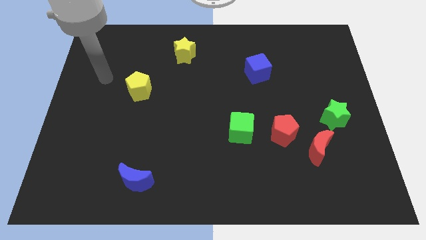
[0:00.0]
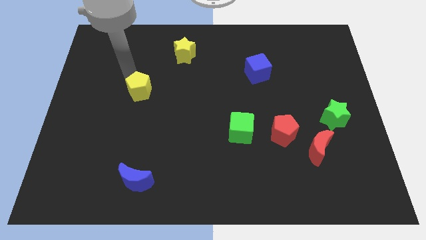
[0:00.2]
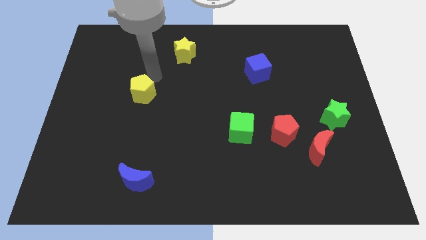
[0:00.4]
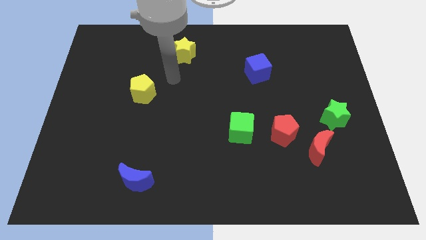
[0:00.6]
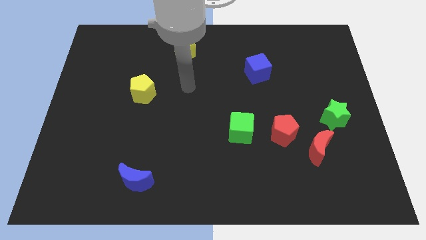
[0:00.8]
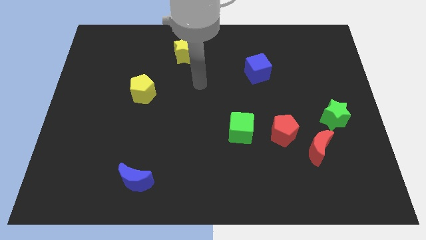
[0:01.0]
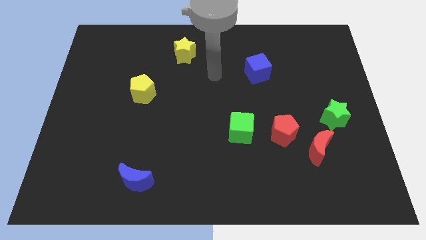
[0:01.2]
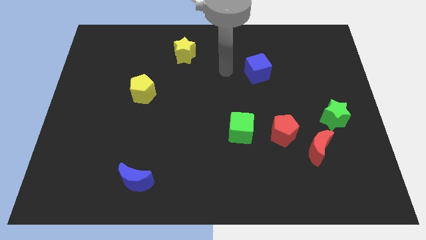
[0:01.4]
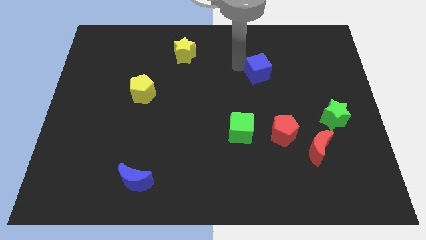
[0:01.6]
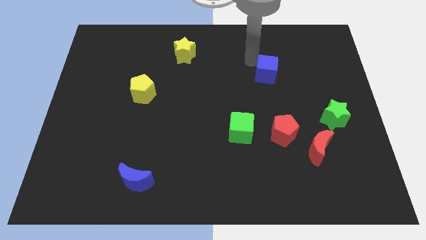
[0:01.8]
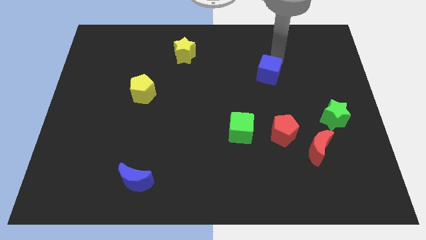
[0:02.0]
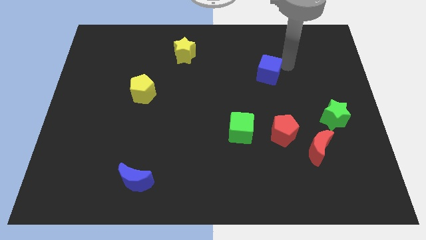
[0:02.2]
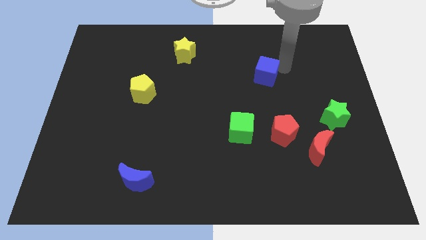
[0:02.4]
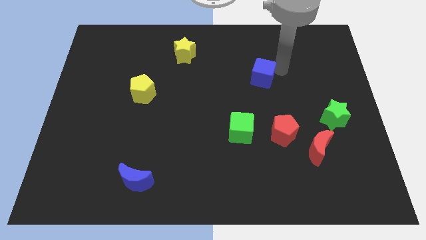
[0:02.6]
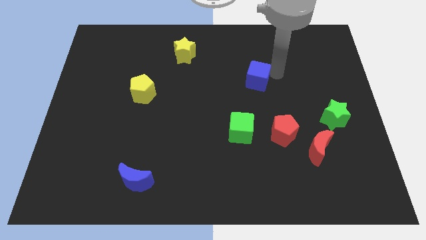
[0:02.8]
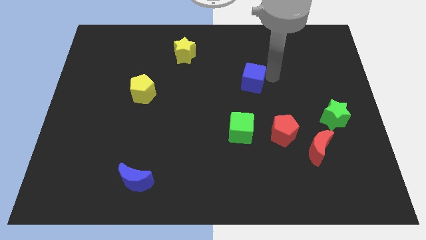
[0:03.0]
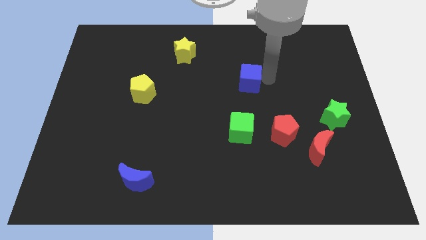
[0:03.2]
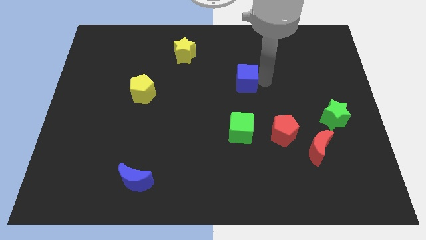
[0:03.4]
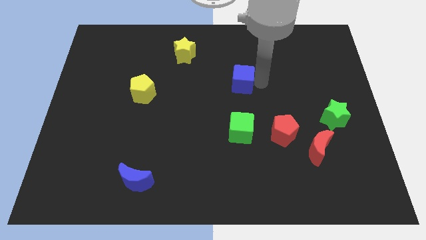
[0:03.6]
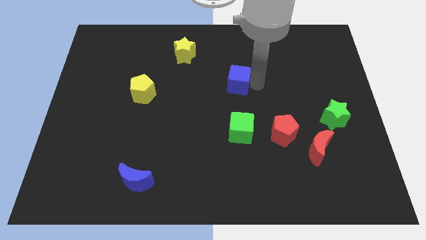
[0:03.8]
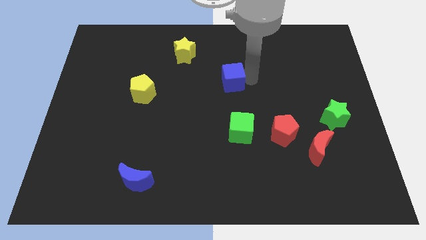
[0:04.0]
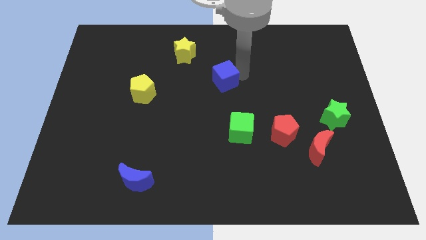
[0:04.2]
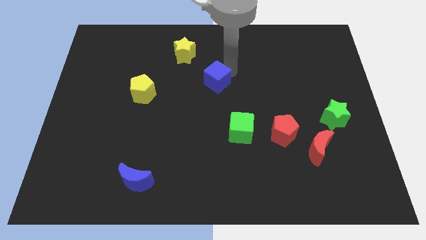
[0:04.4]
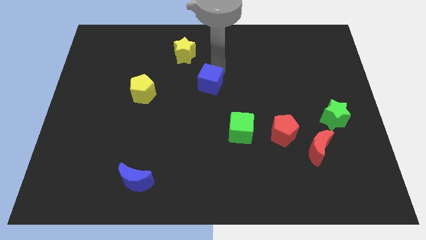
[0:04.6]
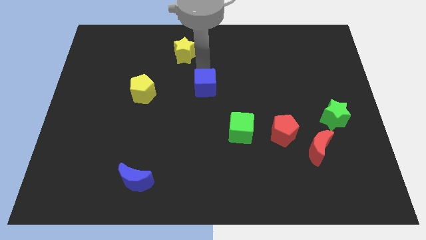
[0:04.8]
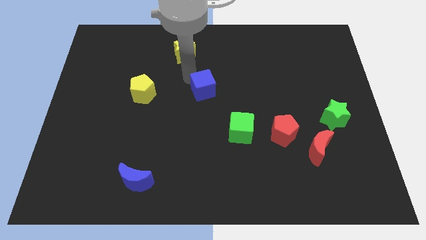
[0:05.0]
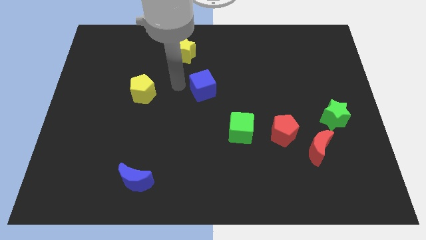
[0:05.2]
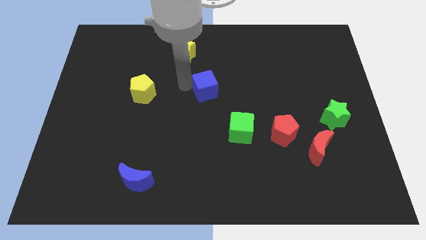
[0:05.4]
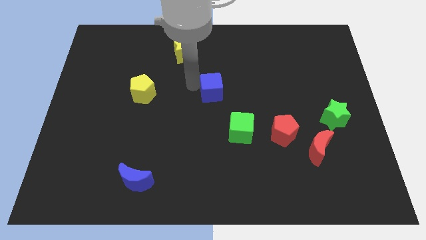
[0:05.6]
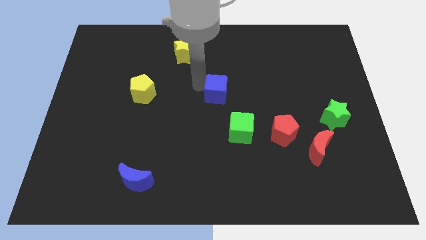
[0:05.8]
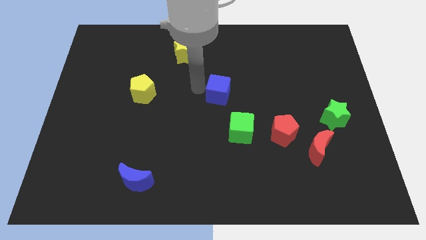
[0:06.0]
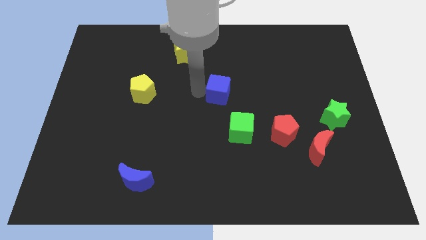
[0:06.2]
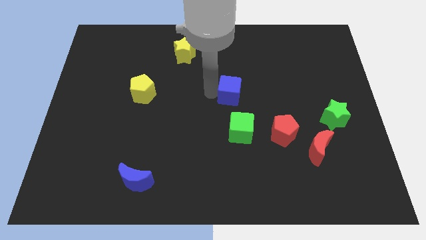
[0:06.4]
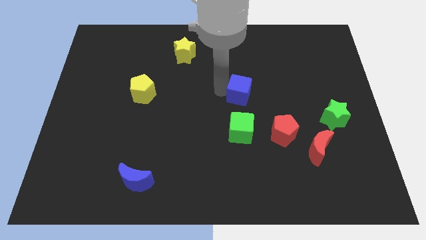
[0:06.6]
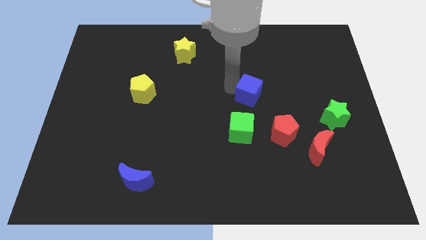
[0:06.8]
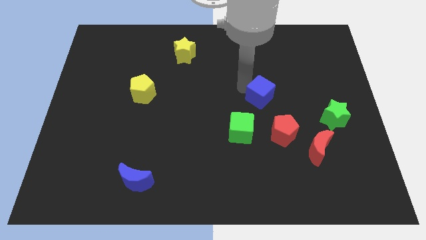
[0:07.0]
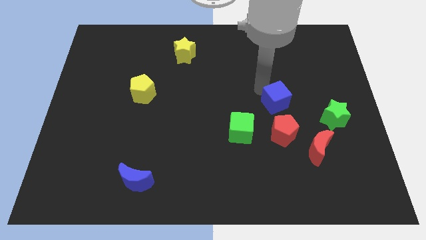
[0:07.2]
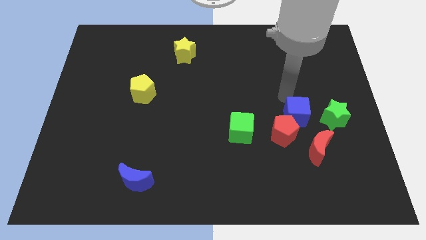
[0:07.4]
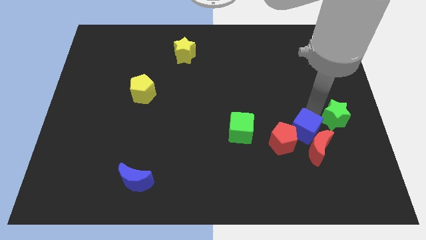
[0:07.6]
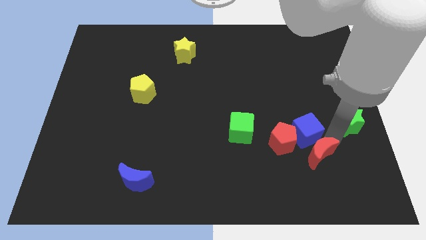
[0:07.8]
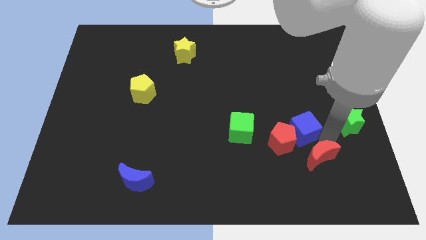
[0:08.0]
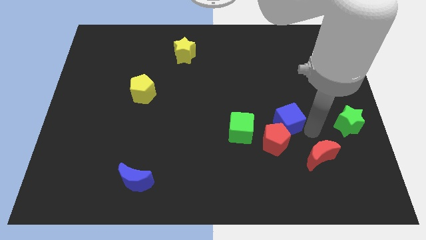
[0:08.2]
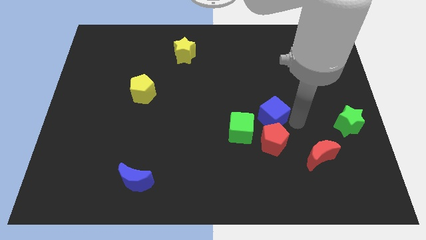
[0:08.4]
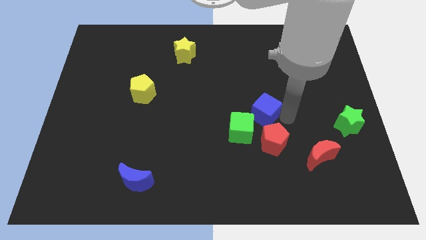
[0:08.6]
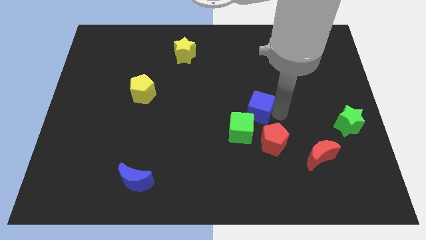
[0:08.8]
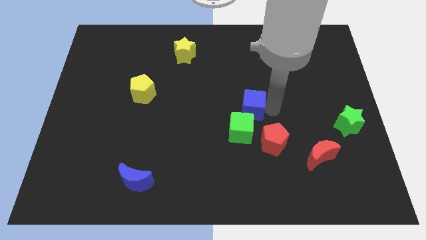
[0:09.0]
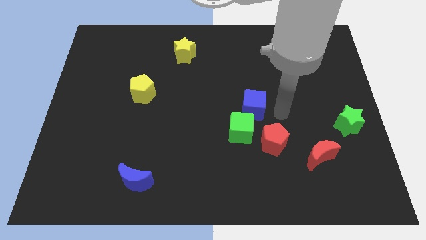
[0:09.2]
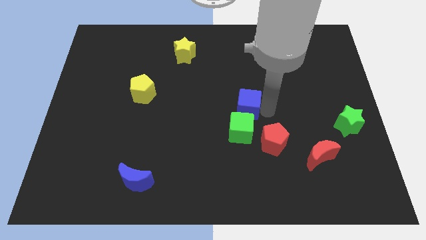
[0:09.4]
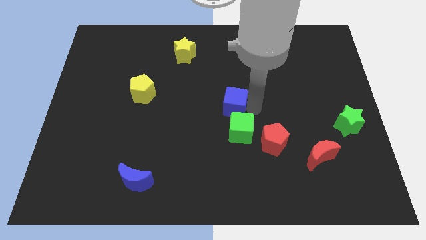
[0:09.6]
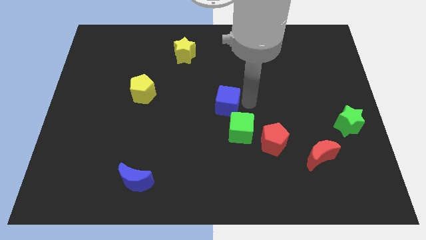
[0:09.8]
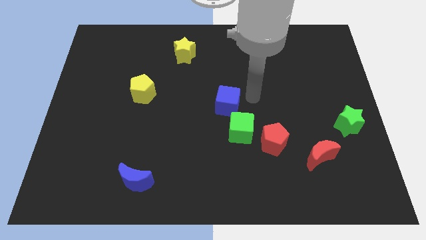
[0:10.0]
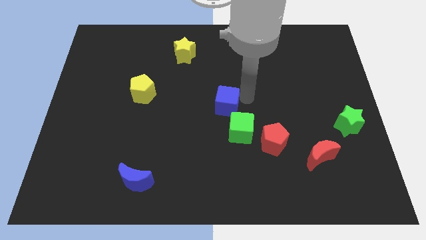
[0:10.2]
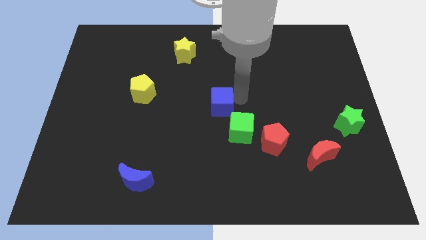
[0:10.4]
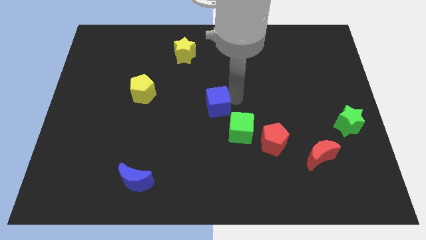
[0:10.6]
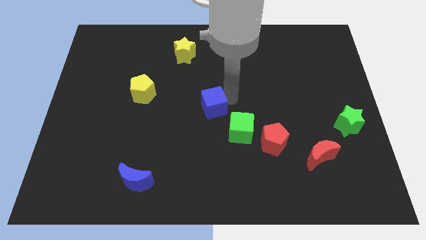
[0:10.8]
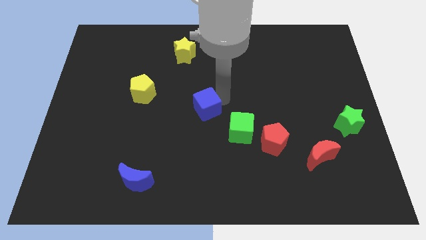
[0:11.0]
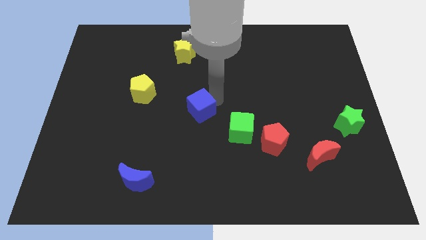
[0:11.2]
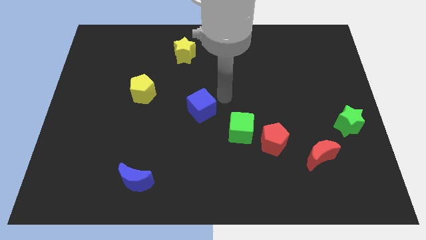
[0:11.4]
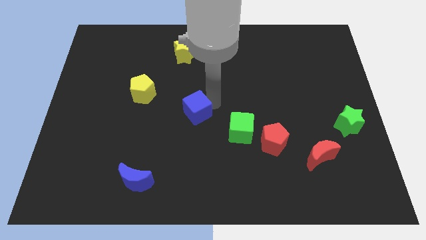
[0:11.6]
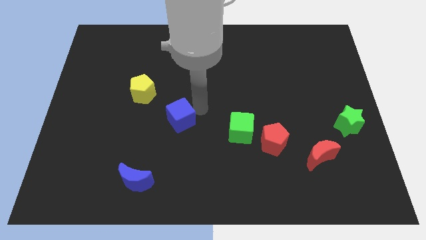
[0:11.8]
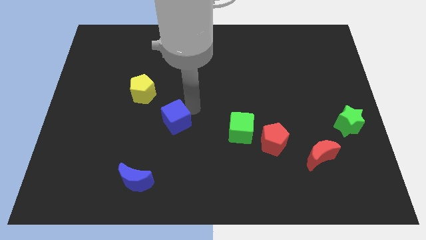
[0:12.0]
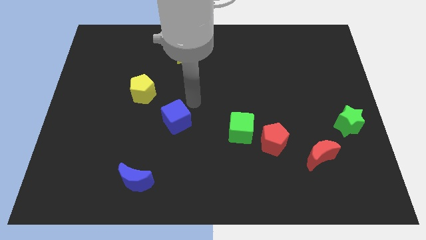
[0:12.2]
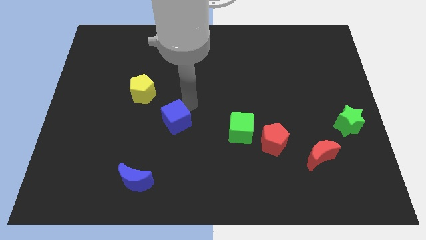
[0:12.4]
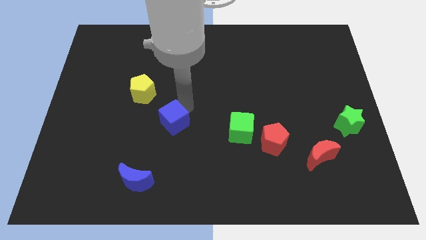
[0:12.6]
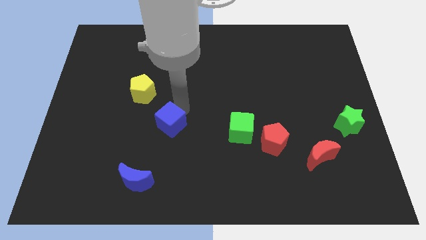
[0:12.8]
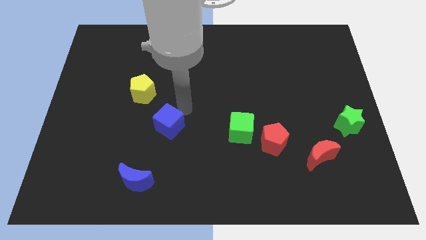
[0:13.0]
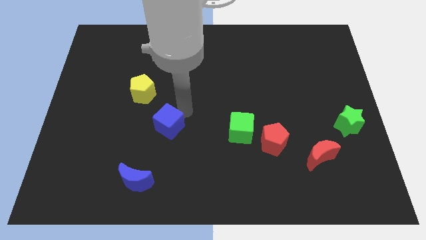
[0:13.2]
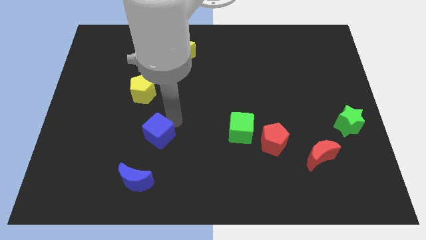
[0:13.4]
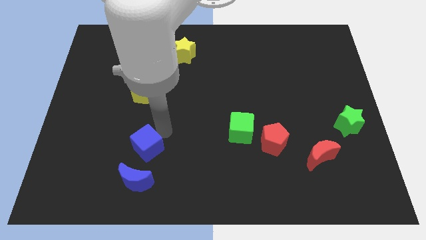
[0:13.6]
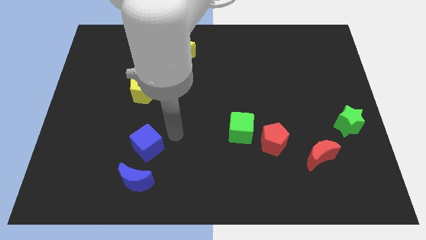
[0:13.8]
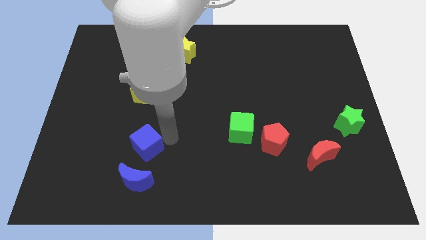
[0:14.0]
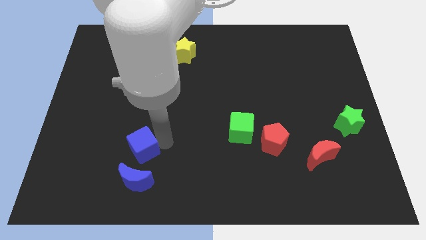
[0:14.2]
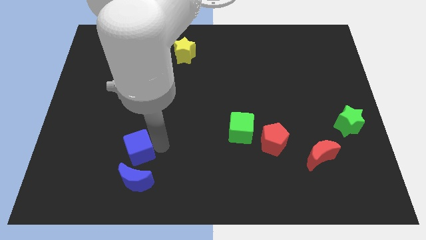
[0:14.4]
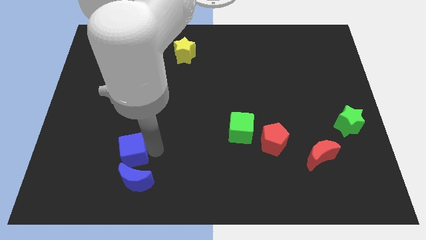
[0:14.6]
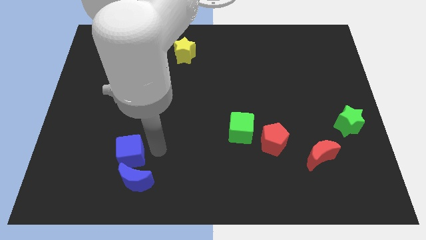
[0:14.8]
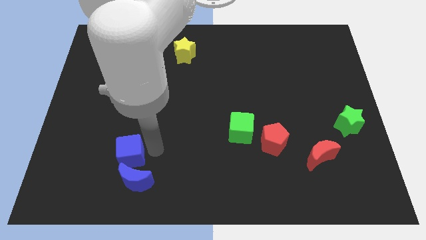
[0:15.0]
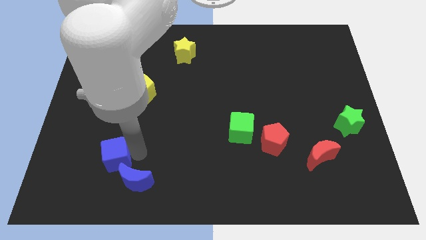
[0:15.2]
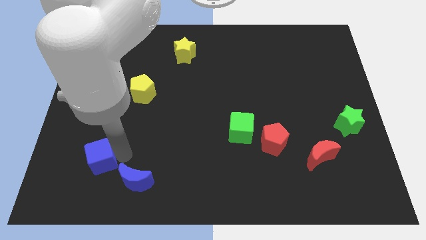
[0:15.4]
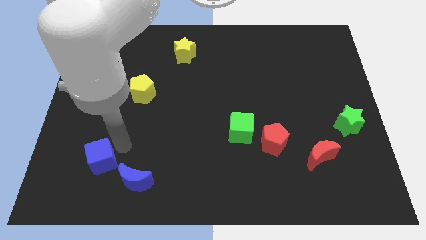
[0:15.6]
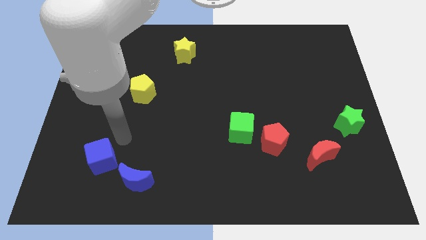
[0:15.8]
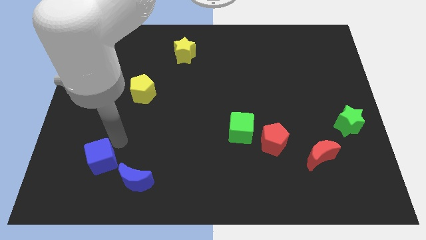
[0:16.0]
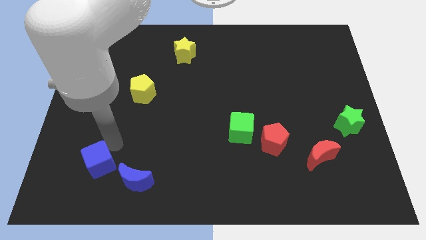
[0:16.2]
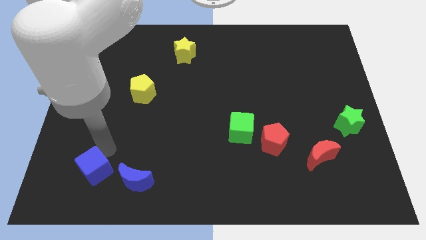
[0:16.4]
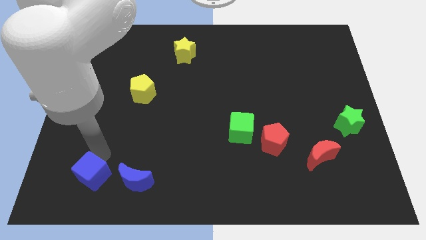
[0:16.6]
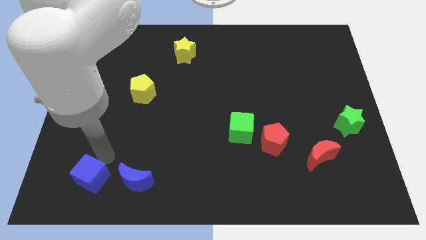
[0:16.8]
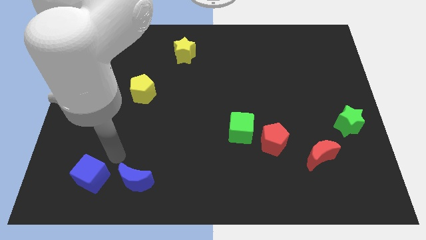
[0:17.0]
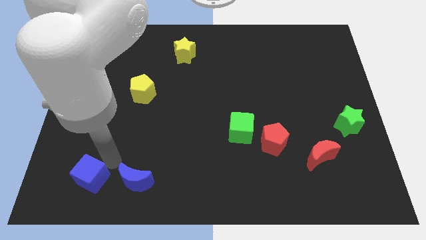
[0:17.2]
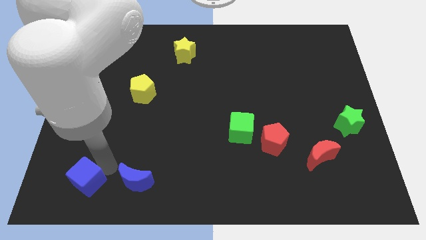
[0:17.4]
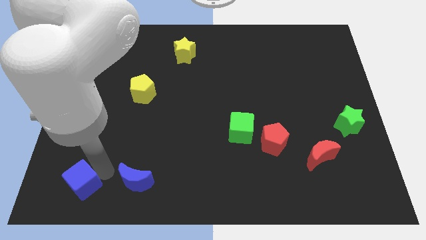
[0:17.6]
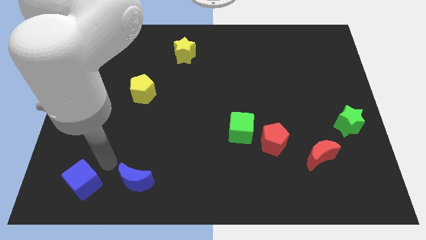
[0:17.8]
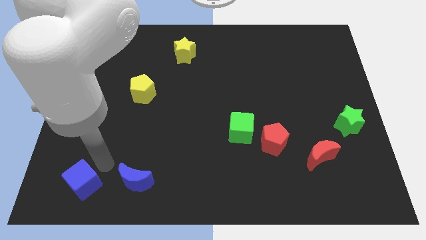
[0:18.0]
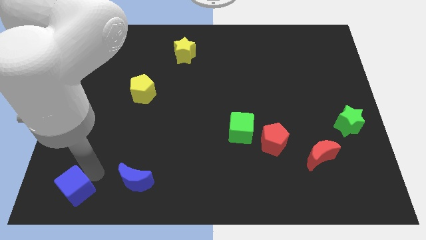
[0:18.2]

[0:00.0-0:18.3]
push the blue cube to the bottom left of the board
